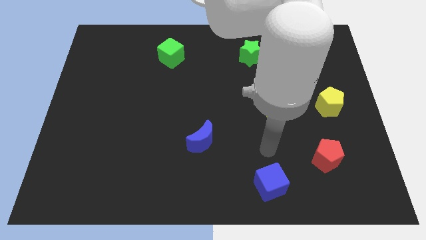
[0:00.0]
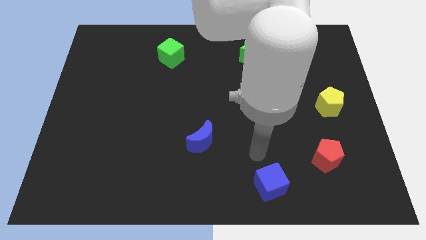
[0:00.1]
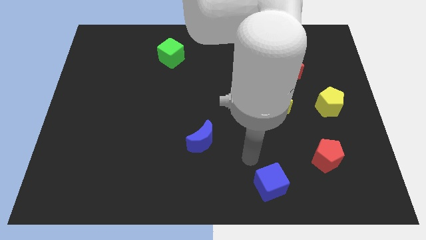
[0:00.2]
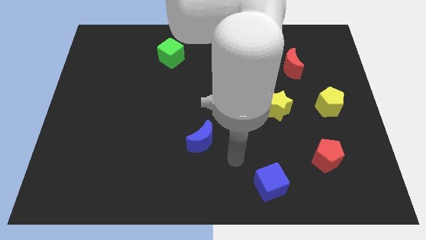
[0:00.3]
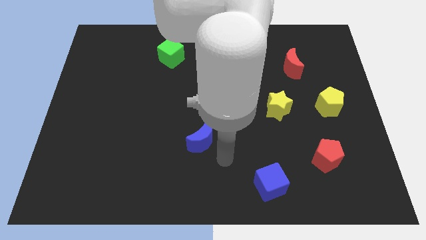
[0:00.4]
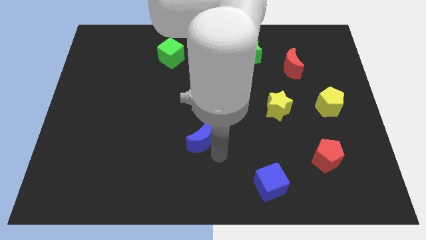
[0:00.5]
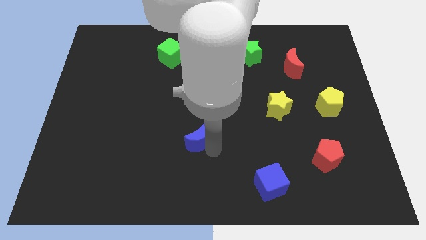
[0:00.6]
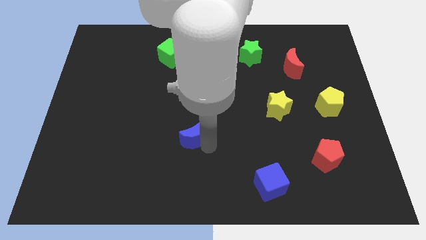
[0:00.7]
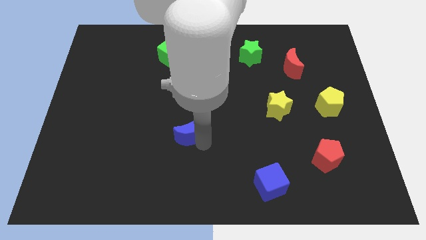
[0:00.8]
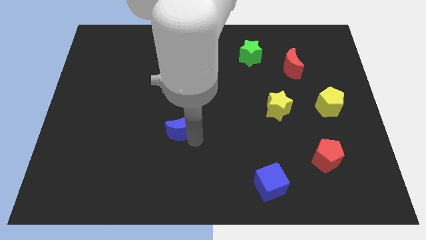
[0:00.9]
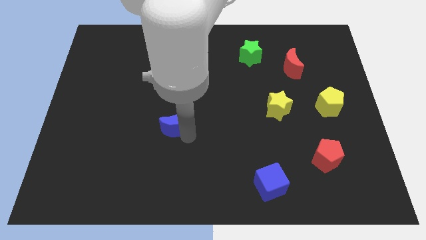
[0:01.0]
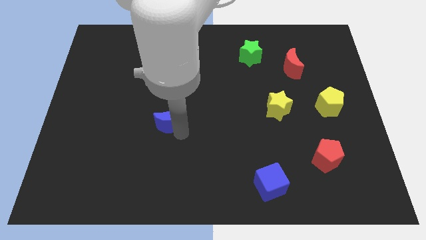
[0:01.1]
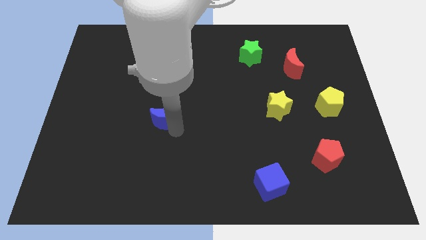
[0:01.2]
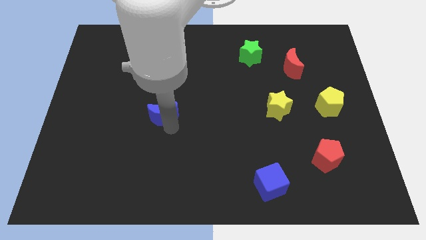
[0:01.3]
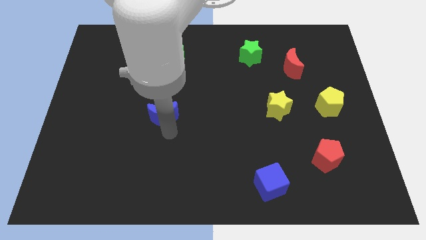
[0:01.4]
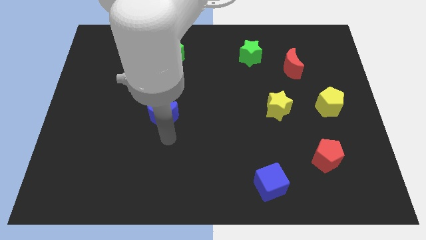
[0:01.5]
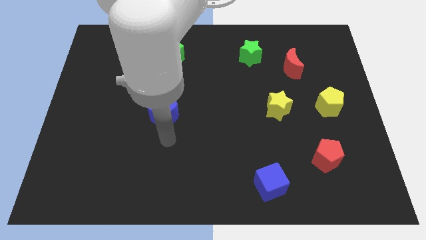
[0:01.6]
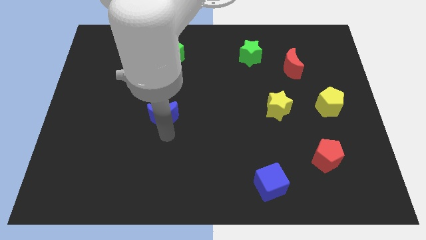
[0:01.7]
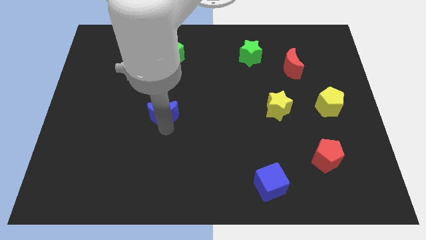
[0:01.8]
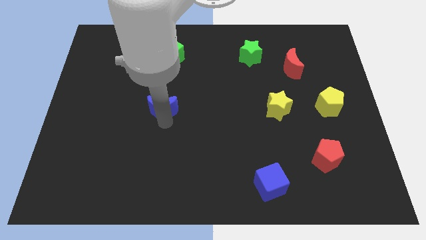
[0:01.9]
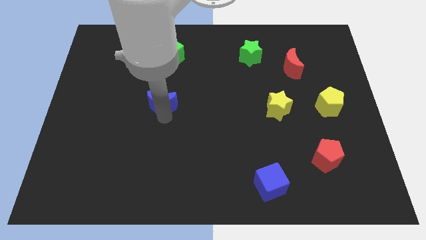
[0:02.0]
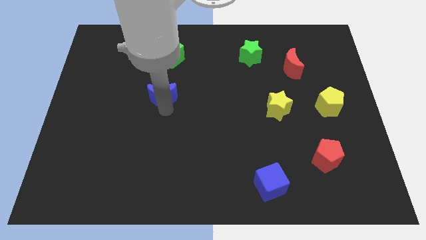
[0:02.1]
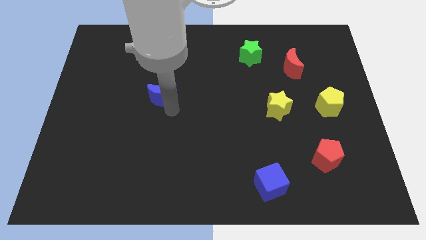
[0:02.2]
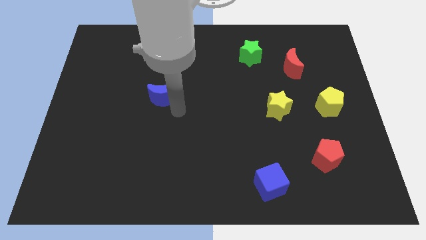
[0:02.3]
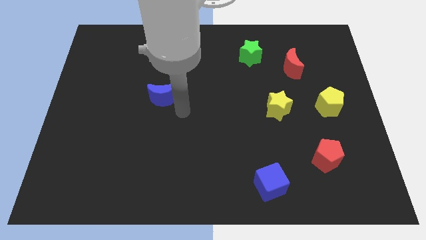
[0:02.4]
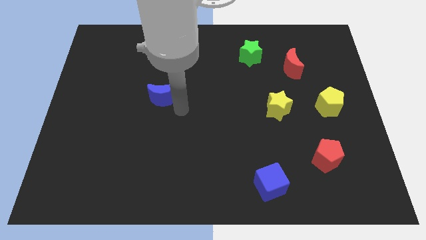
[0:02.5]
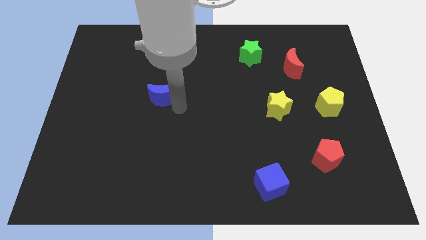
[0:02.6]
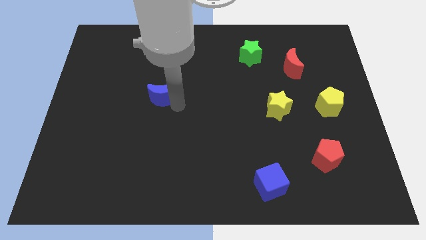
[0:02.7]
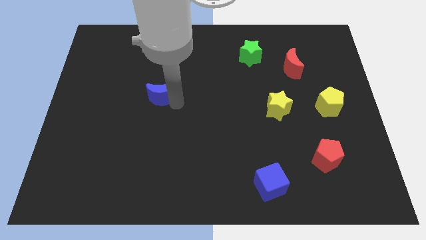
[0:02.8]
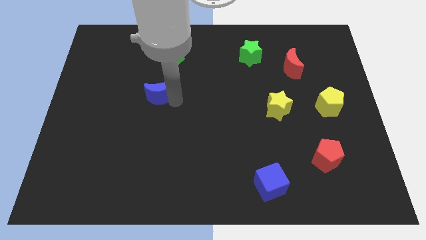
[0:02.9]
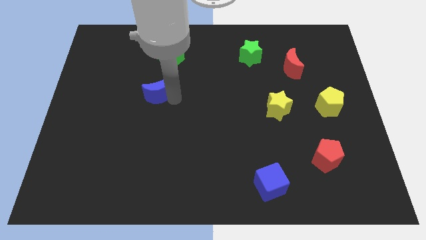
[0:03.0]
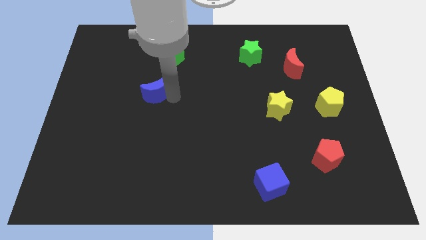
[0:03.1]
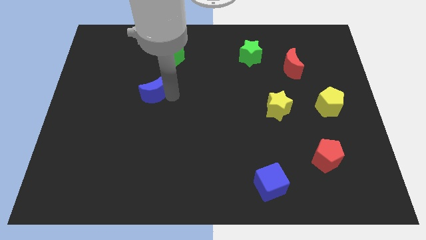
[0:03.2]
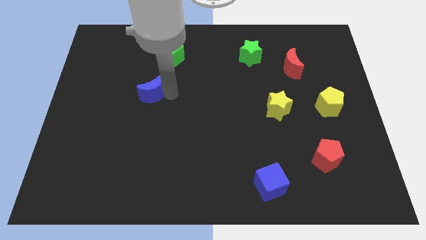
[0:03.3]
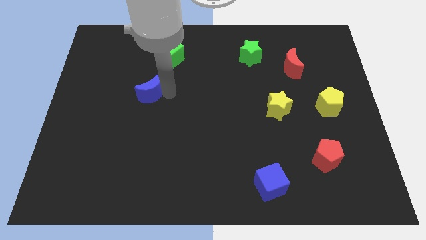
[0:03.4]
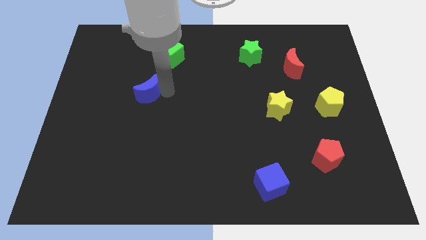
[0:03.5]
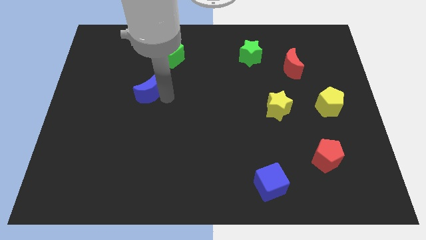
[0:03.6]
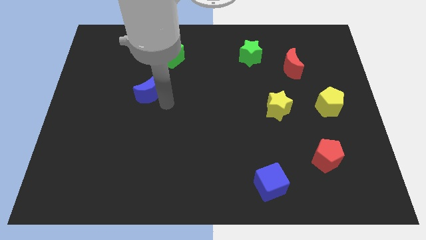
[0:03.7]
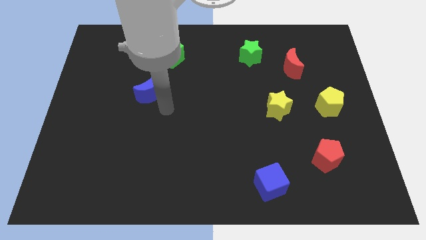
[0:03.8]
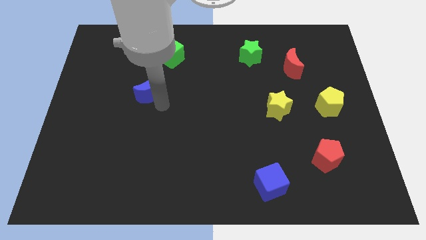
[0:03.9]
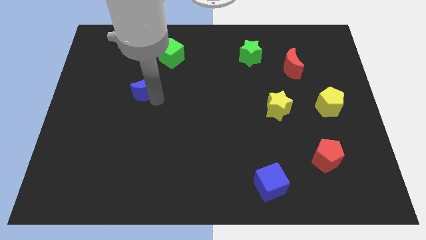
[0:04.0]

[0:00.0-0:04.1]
move the blue moon diagonally up and left

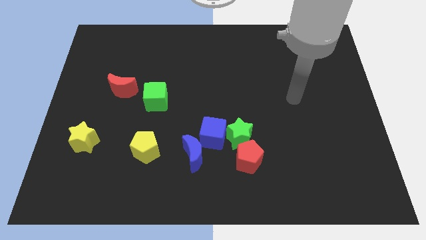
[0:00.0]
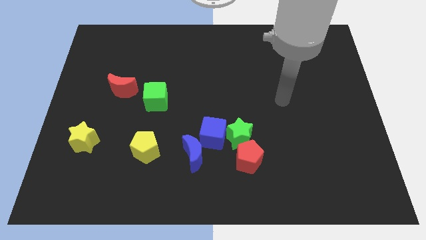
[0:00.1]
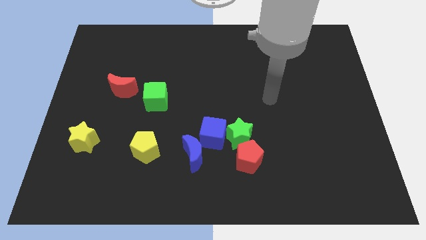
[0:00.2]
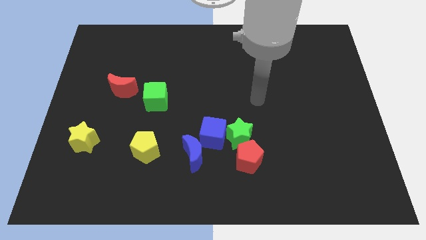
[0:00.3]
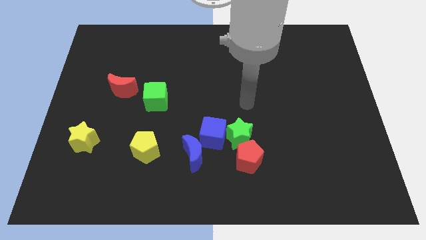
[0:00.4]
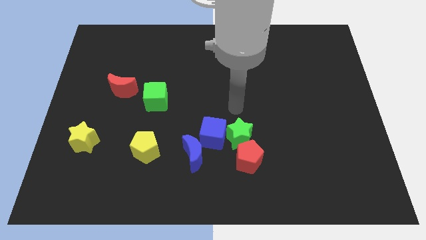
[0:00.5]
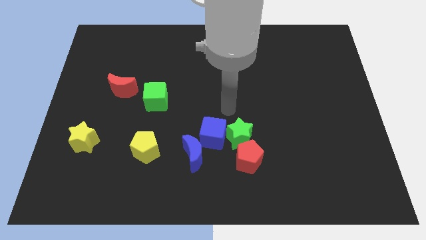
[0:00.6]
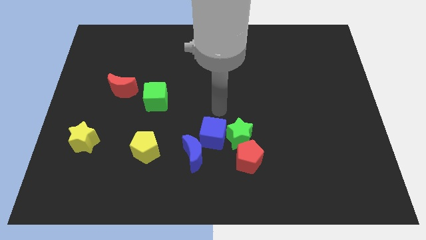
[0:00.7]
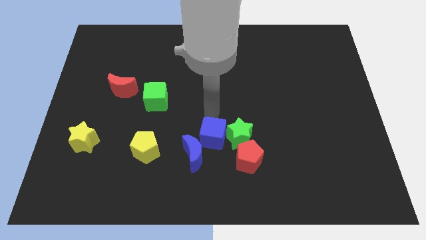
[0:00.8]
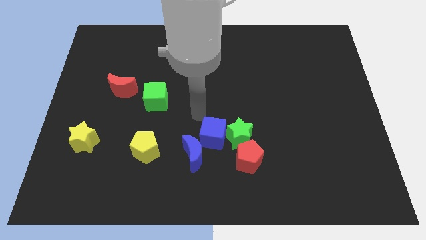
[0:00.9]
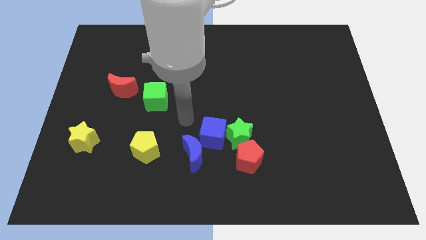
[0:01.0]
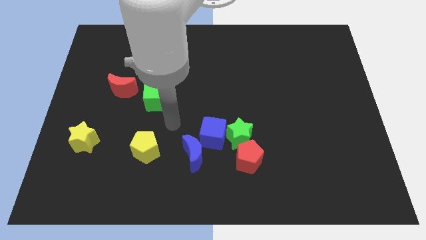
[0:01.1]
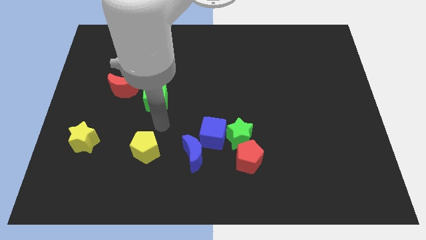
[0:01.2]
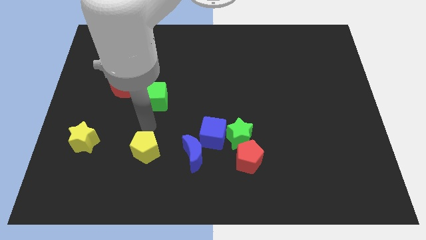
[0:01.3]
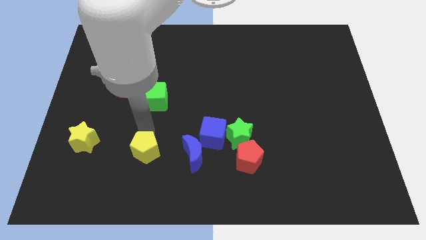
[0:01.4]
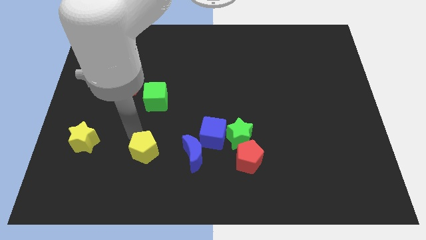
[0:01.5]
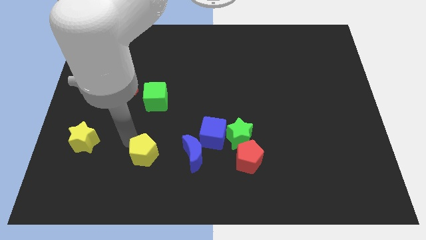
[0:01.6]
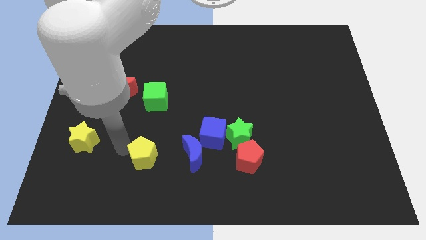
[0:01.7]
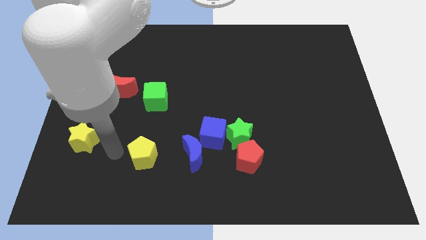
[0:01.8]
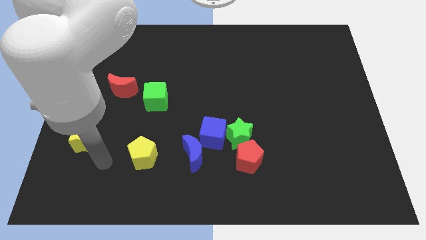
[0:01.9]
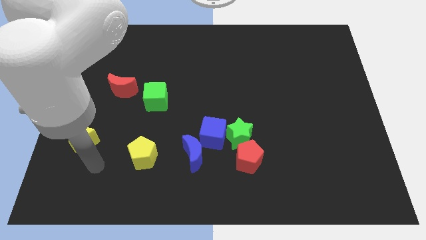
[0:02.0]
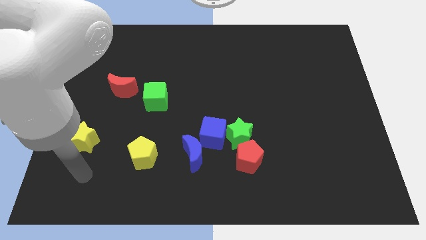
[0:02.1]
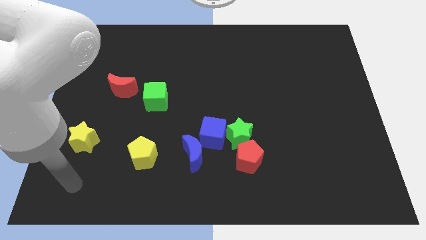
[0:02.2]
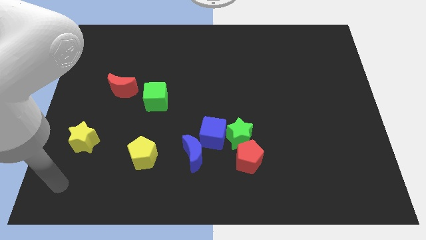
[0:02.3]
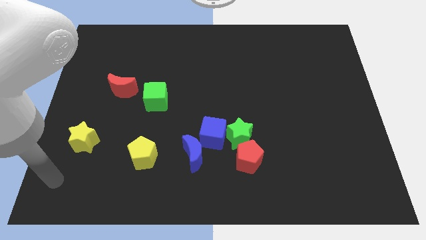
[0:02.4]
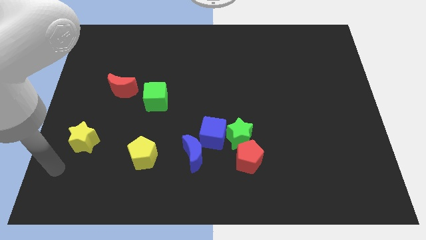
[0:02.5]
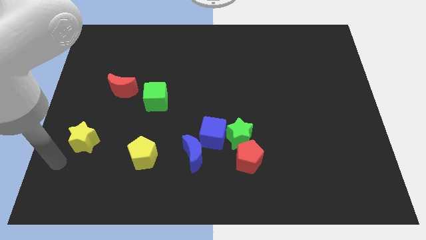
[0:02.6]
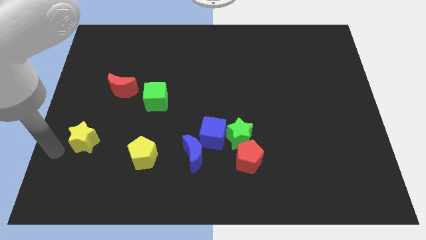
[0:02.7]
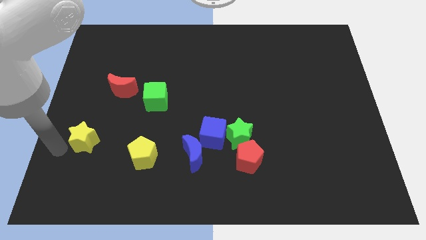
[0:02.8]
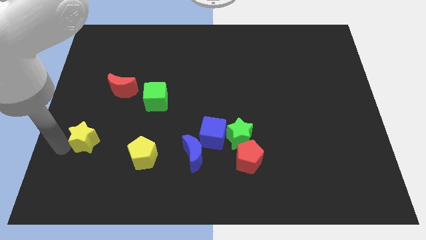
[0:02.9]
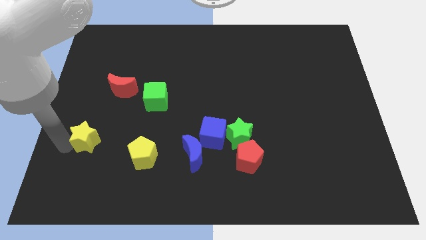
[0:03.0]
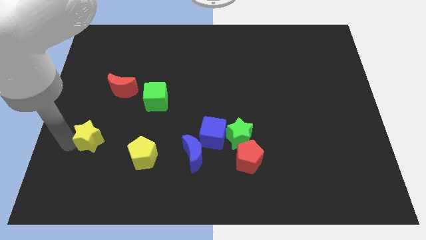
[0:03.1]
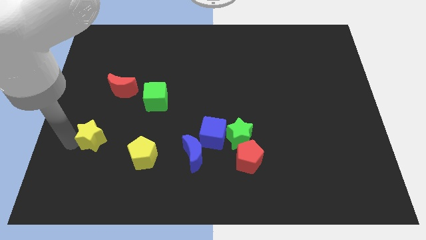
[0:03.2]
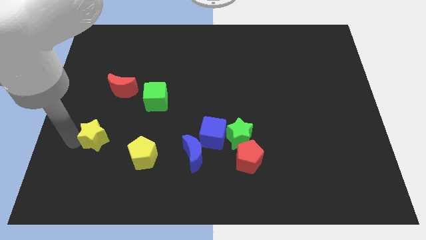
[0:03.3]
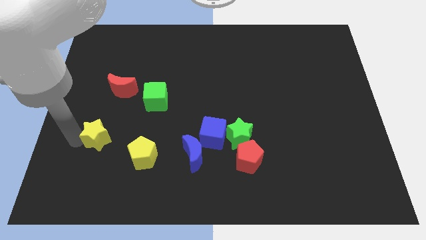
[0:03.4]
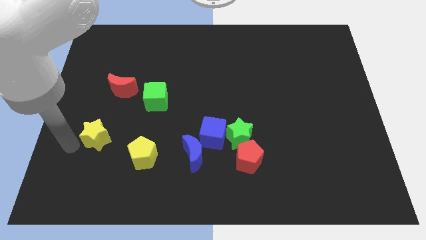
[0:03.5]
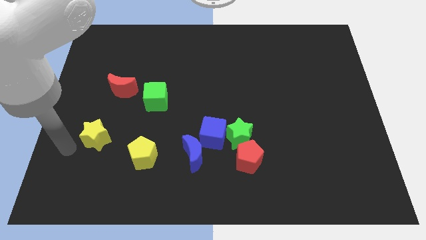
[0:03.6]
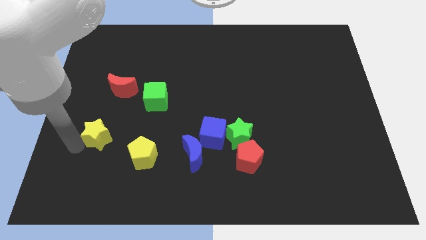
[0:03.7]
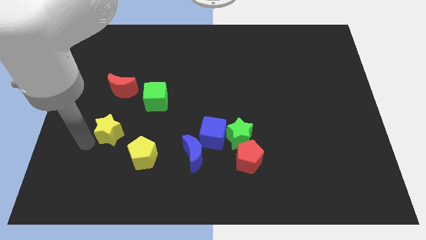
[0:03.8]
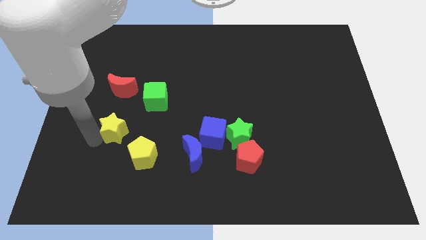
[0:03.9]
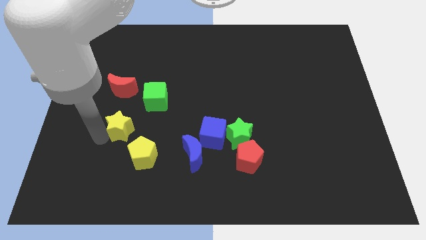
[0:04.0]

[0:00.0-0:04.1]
slightly slide the yellow star to the right
